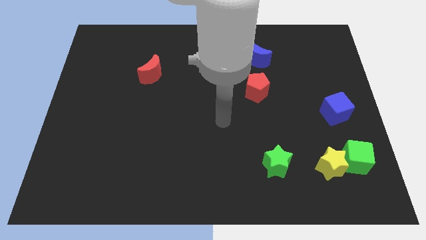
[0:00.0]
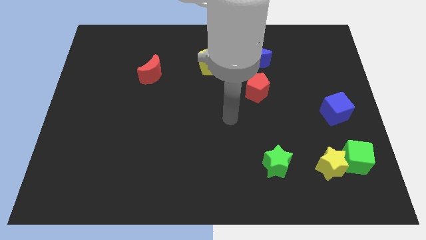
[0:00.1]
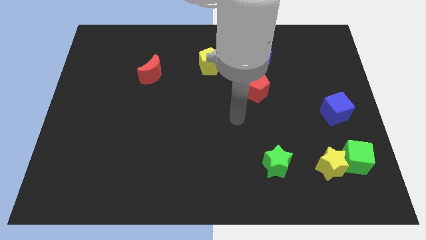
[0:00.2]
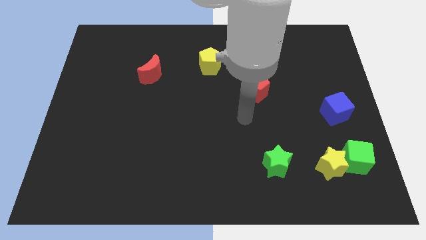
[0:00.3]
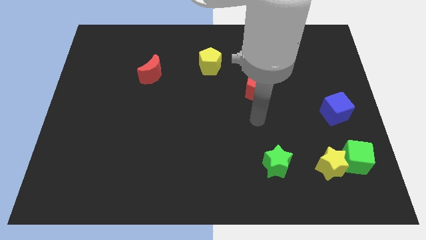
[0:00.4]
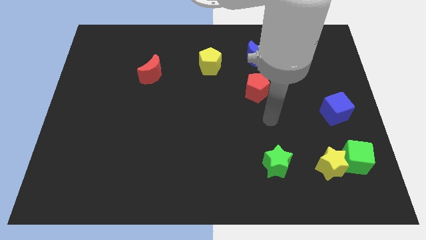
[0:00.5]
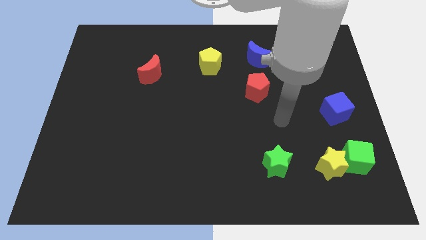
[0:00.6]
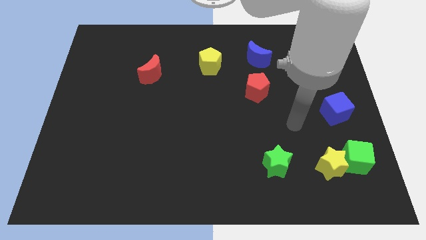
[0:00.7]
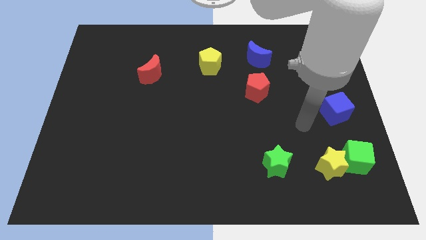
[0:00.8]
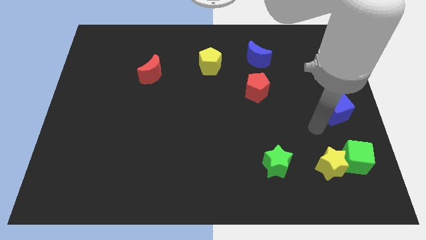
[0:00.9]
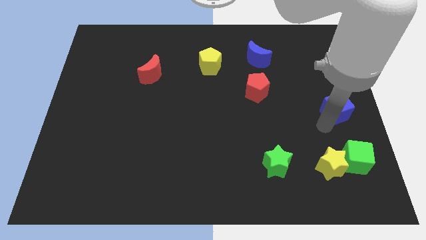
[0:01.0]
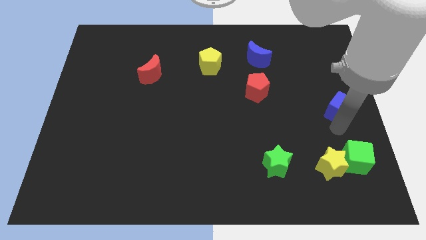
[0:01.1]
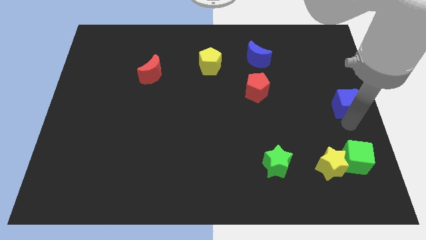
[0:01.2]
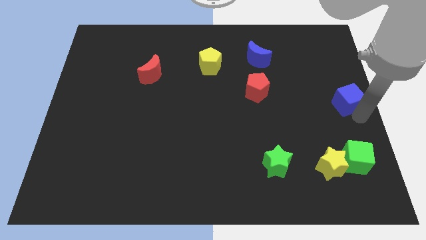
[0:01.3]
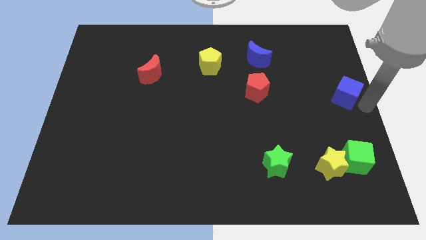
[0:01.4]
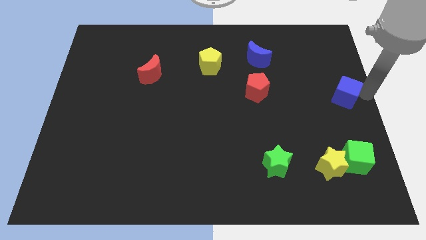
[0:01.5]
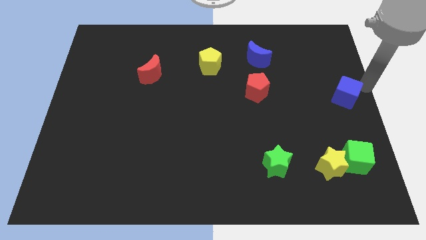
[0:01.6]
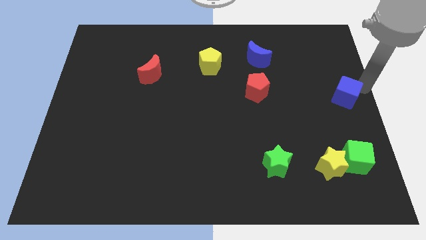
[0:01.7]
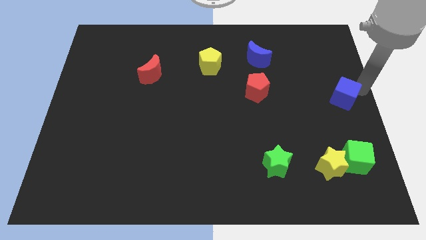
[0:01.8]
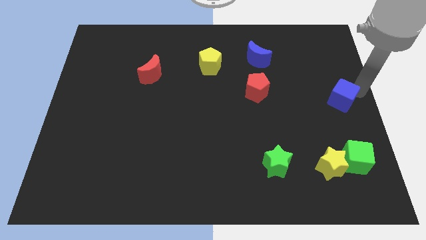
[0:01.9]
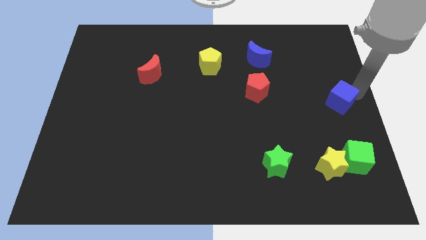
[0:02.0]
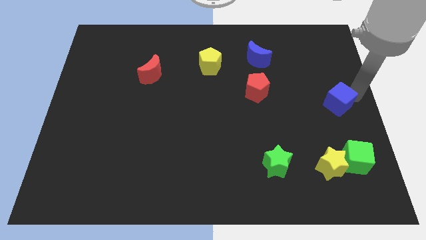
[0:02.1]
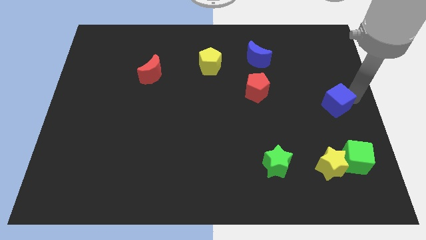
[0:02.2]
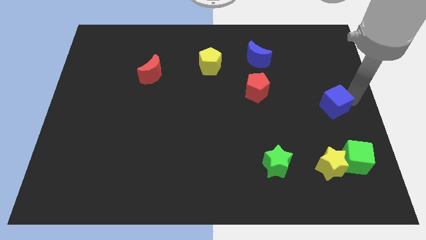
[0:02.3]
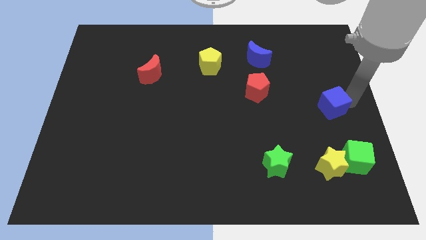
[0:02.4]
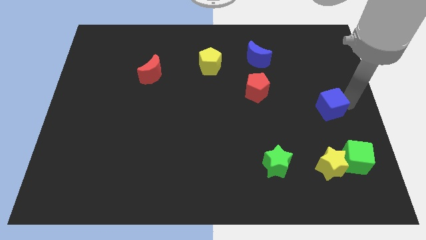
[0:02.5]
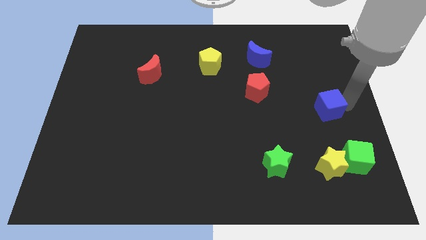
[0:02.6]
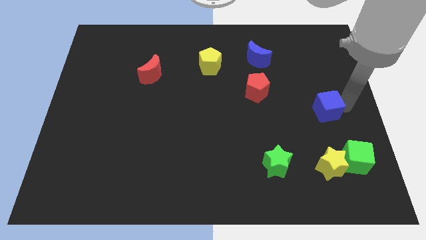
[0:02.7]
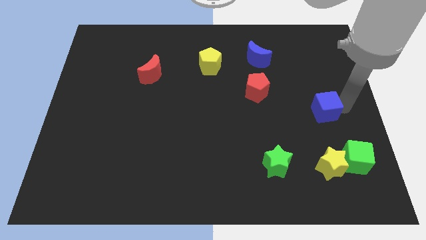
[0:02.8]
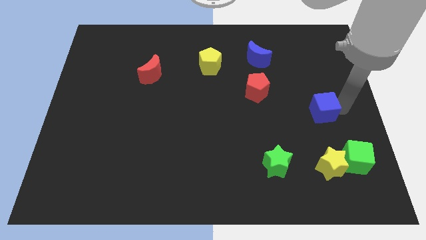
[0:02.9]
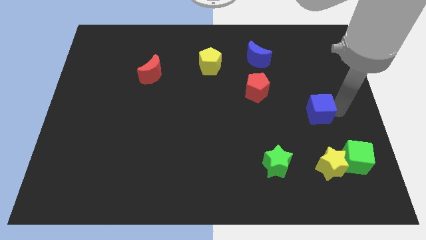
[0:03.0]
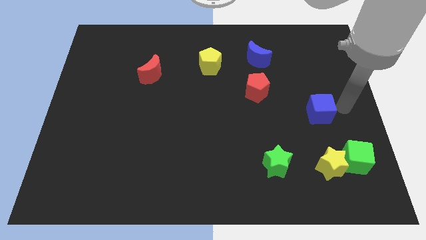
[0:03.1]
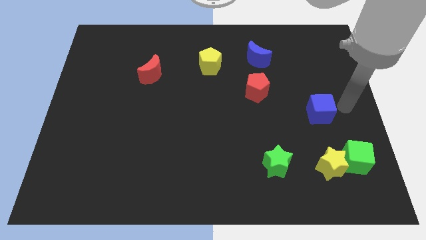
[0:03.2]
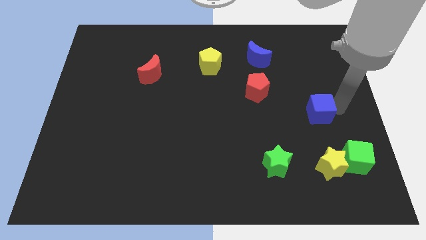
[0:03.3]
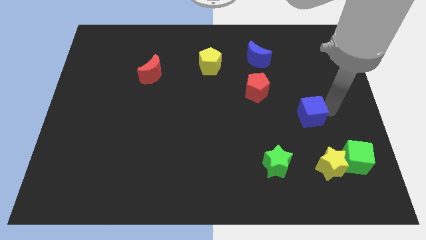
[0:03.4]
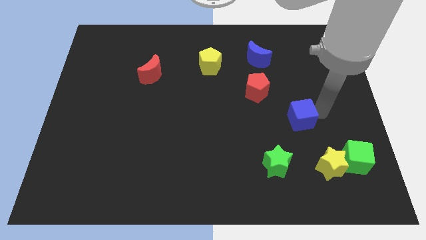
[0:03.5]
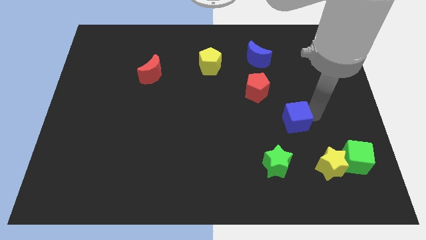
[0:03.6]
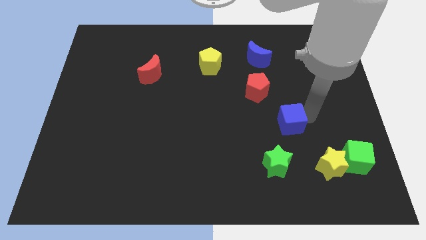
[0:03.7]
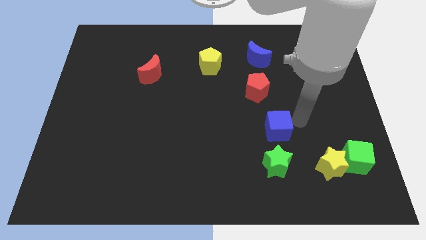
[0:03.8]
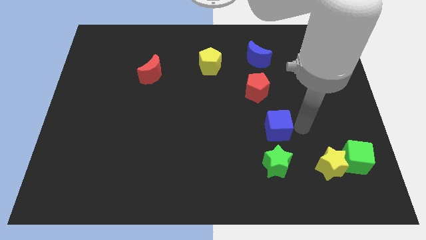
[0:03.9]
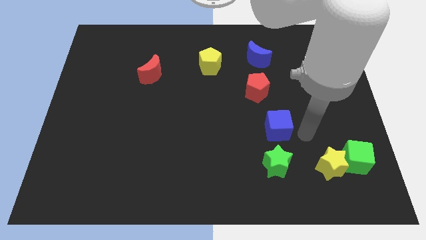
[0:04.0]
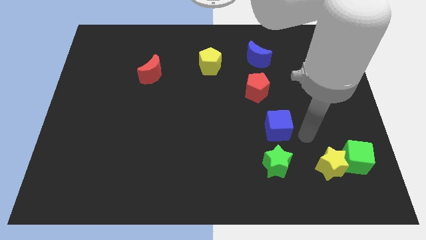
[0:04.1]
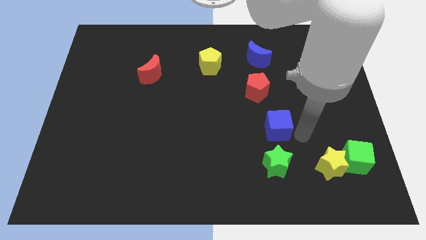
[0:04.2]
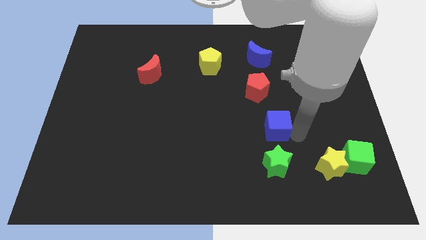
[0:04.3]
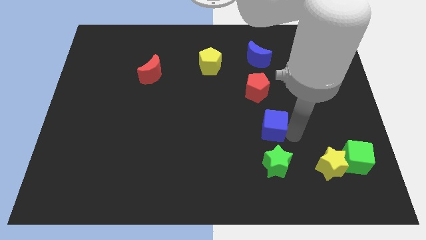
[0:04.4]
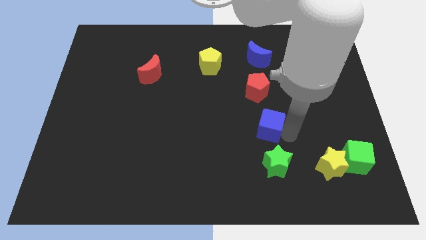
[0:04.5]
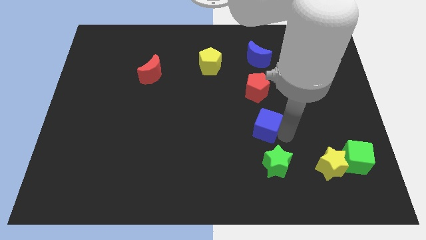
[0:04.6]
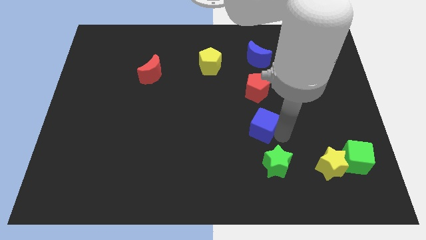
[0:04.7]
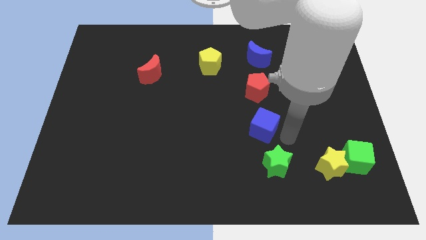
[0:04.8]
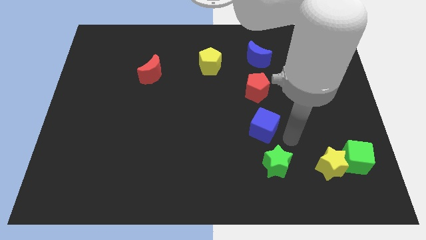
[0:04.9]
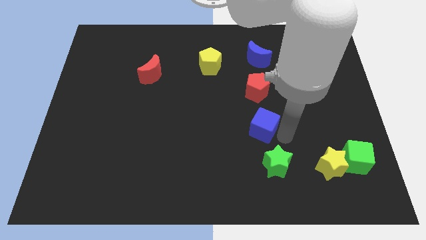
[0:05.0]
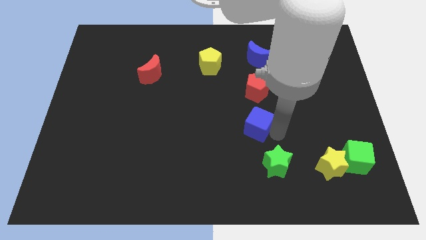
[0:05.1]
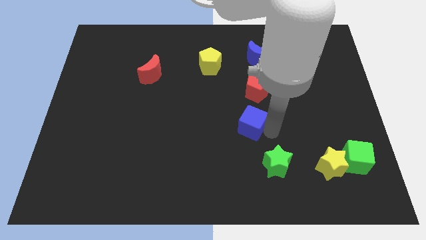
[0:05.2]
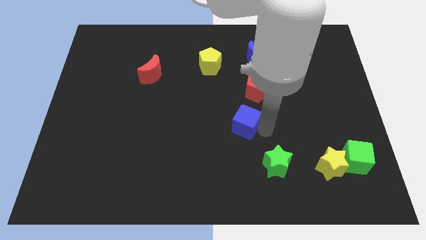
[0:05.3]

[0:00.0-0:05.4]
move the blue cube left

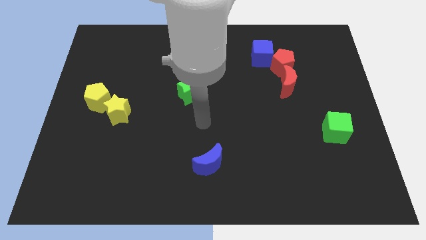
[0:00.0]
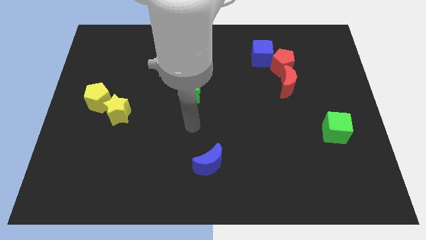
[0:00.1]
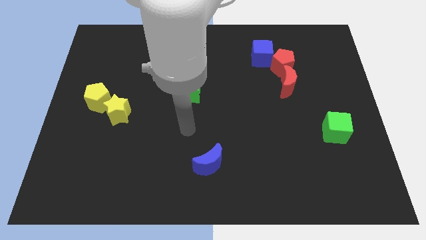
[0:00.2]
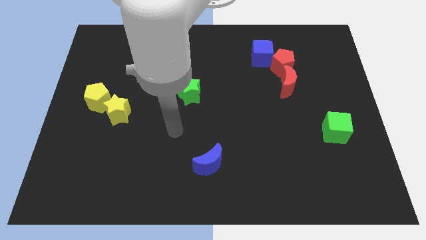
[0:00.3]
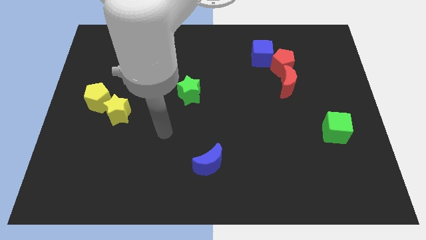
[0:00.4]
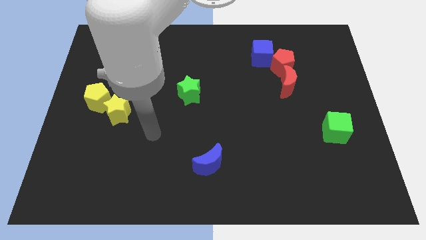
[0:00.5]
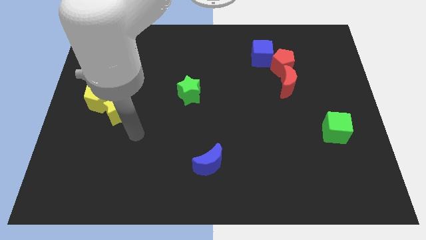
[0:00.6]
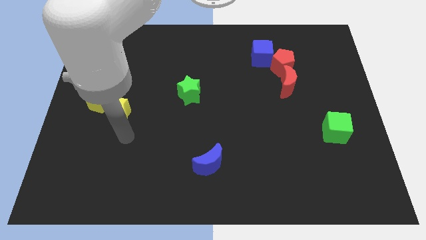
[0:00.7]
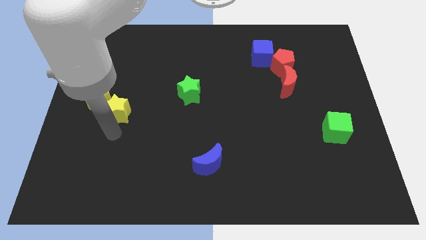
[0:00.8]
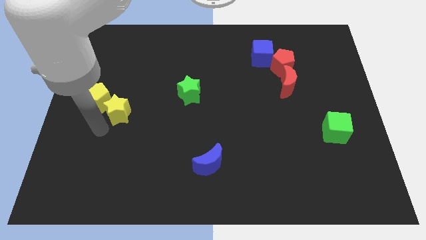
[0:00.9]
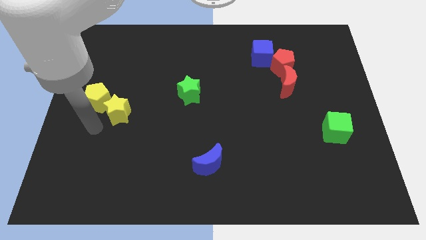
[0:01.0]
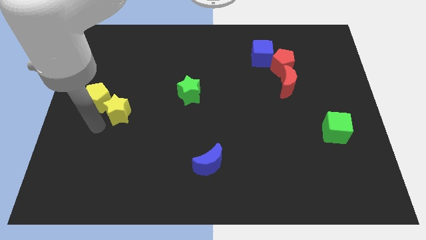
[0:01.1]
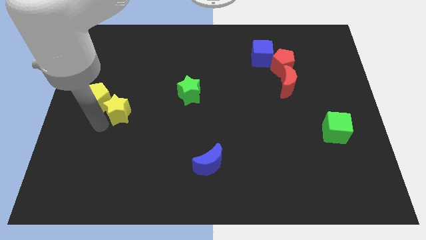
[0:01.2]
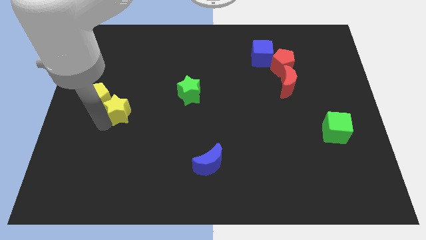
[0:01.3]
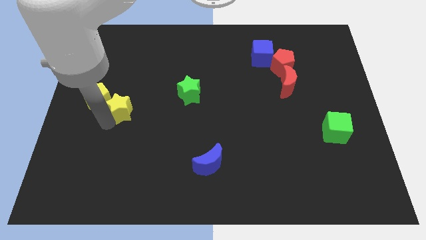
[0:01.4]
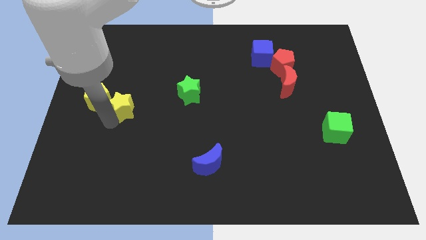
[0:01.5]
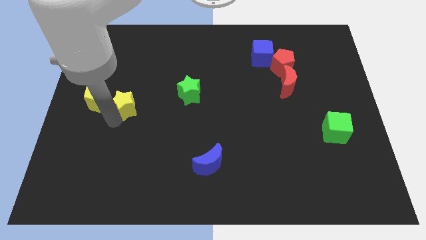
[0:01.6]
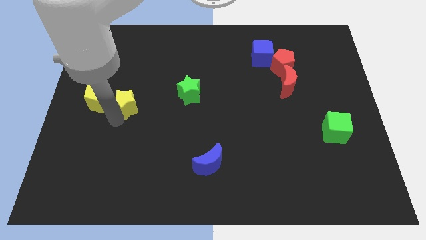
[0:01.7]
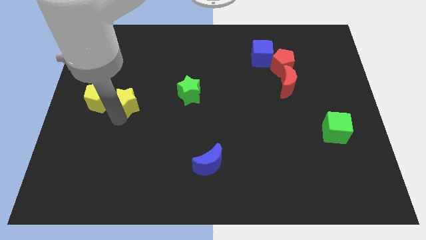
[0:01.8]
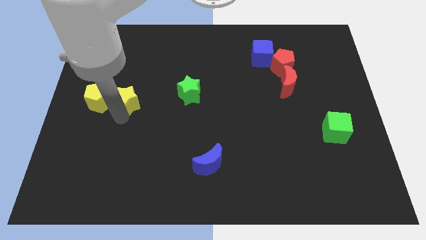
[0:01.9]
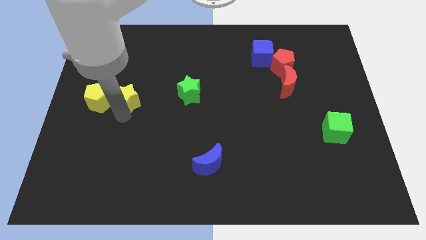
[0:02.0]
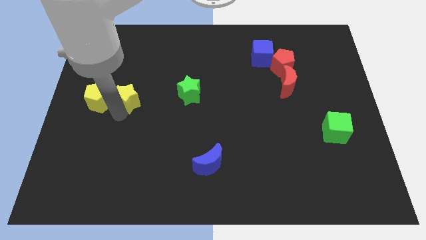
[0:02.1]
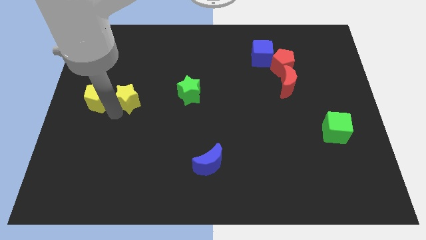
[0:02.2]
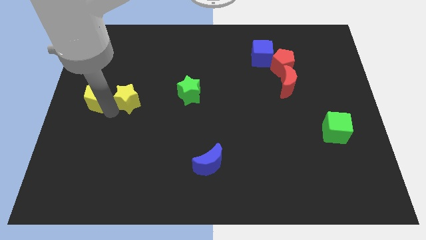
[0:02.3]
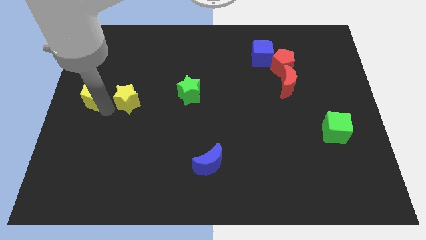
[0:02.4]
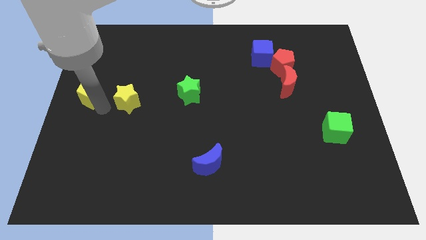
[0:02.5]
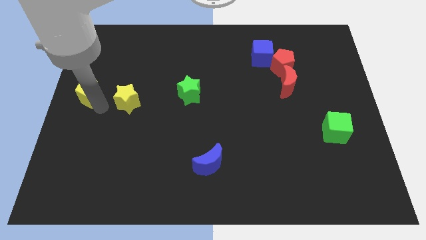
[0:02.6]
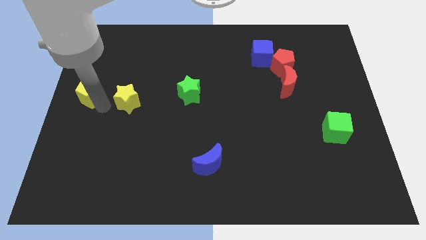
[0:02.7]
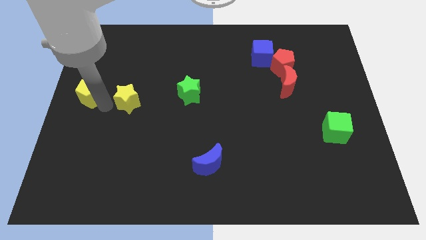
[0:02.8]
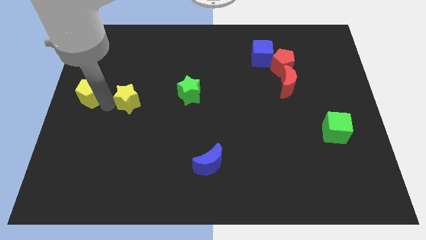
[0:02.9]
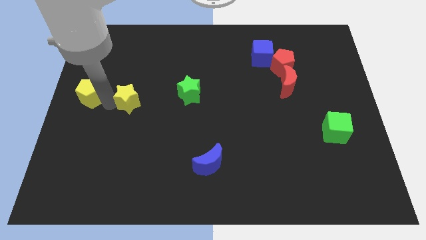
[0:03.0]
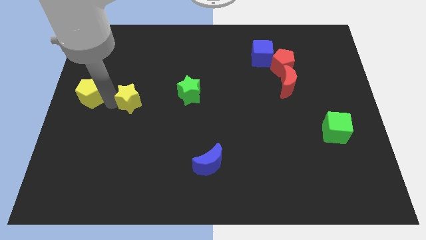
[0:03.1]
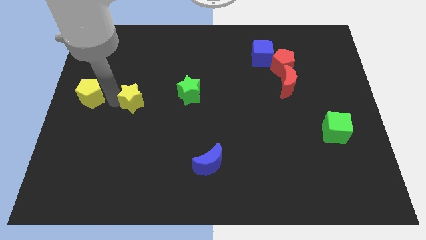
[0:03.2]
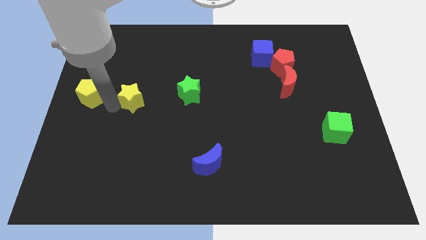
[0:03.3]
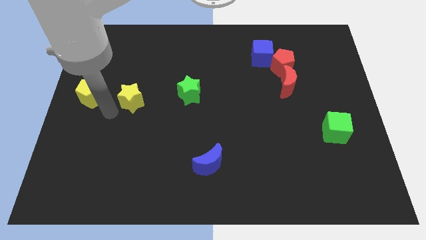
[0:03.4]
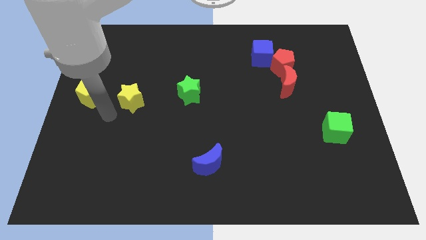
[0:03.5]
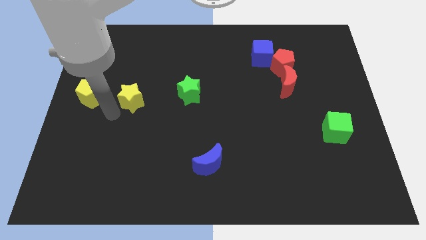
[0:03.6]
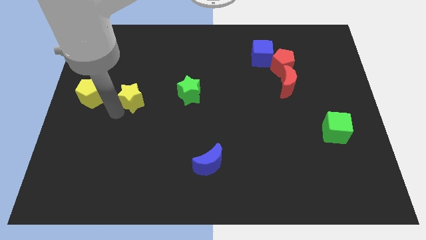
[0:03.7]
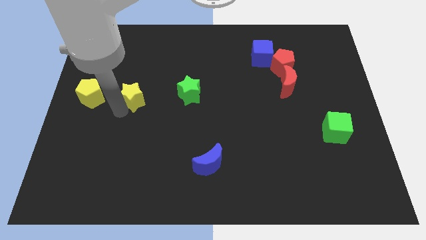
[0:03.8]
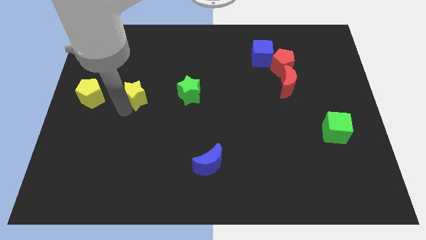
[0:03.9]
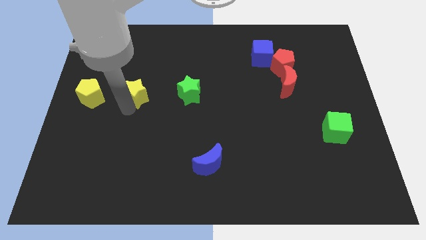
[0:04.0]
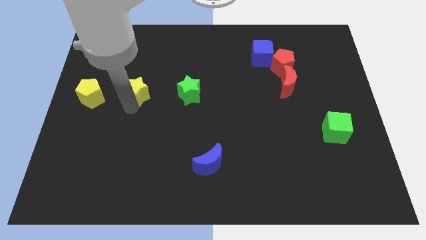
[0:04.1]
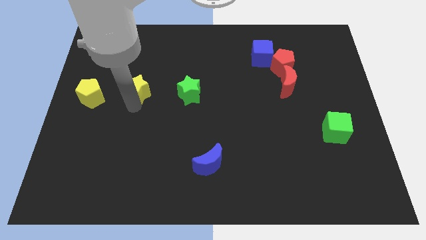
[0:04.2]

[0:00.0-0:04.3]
move the yellow star upwards and then to the right somewhat
